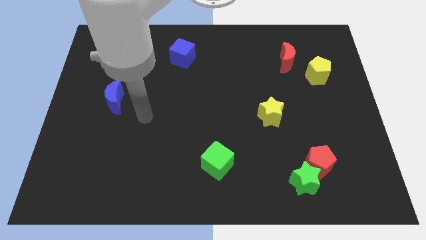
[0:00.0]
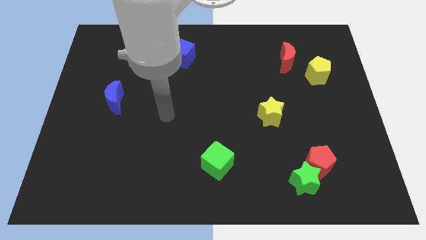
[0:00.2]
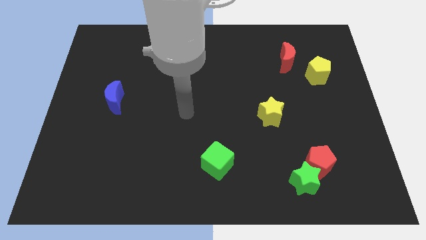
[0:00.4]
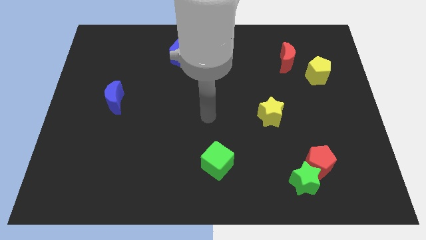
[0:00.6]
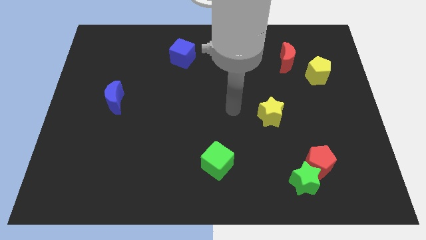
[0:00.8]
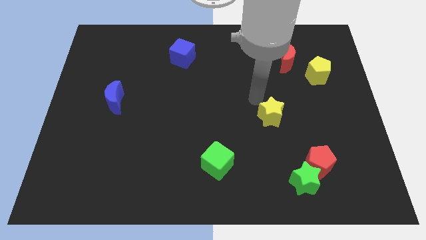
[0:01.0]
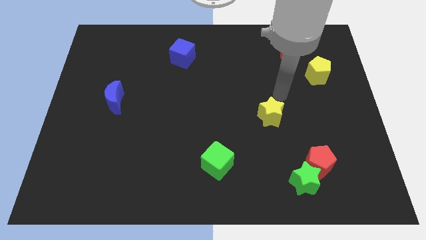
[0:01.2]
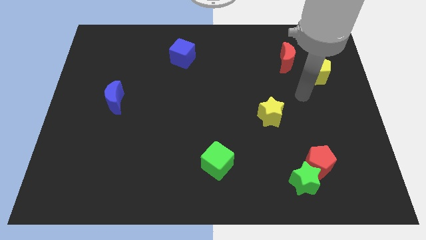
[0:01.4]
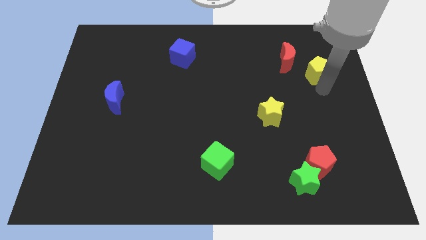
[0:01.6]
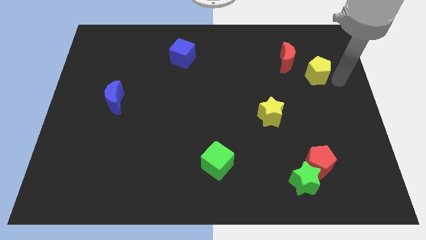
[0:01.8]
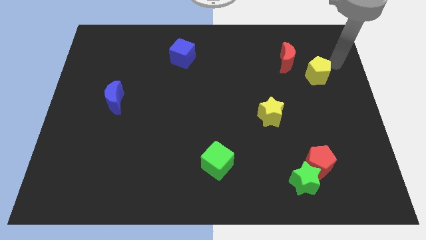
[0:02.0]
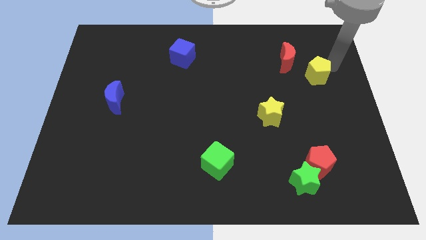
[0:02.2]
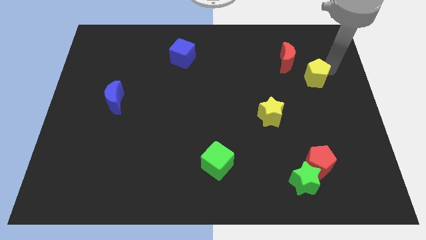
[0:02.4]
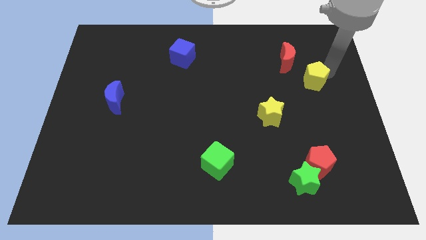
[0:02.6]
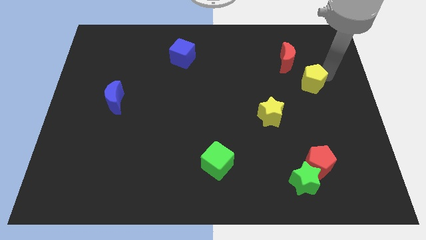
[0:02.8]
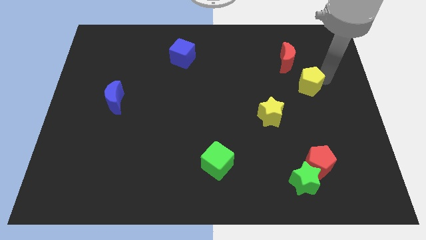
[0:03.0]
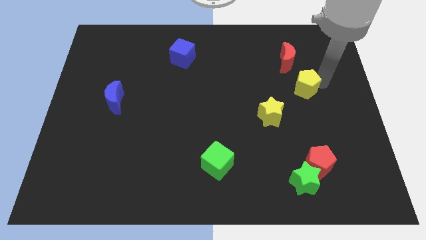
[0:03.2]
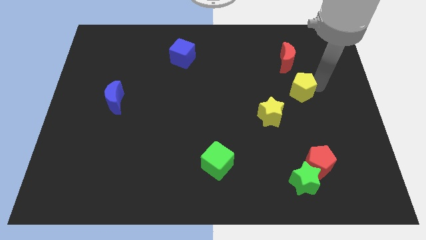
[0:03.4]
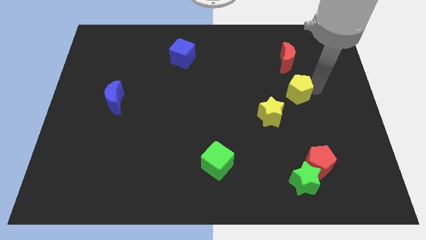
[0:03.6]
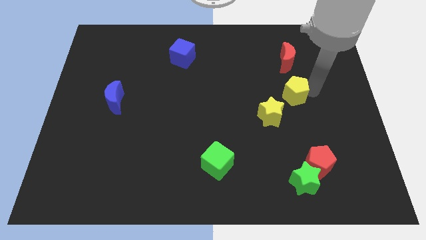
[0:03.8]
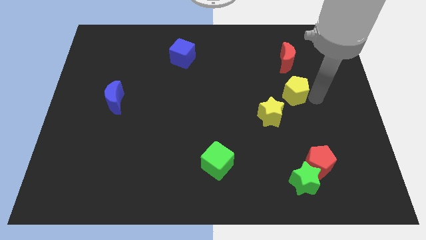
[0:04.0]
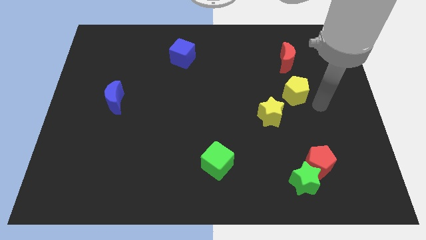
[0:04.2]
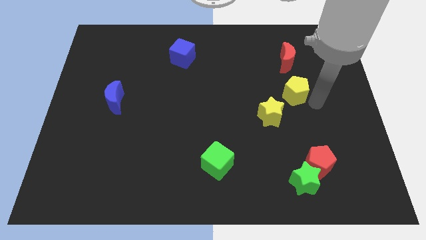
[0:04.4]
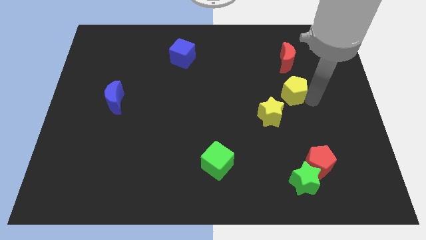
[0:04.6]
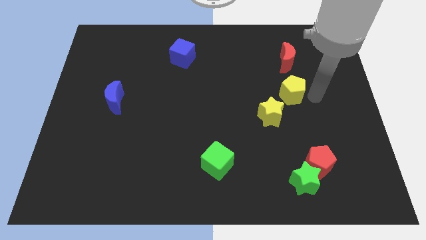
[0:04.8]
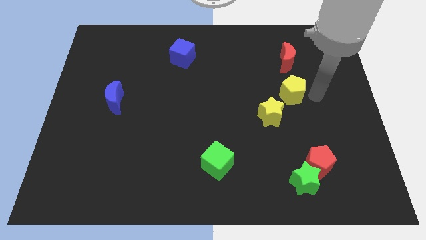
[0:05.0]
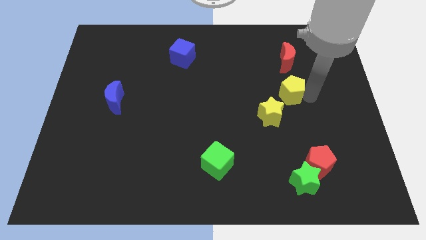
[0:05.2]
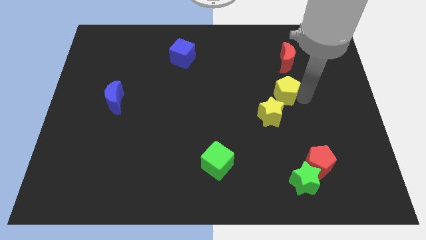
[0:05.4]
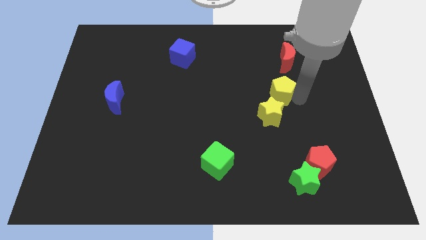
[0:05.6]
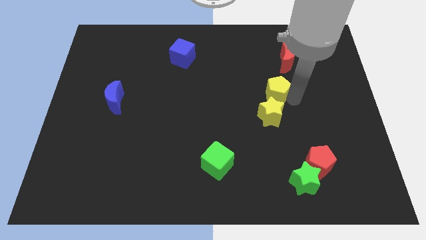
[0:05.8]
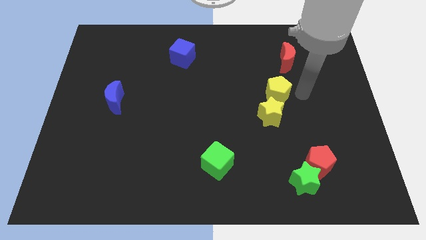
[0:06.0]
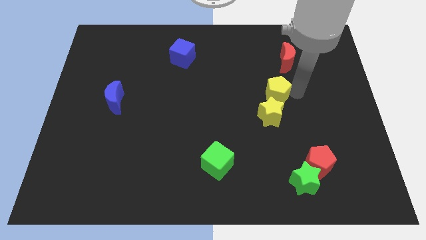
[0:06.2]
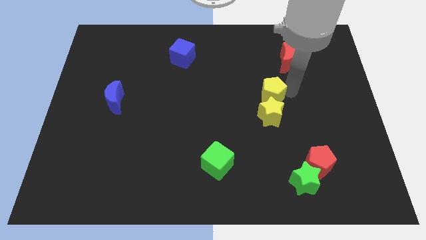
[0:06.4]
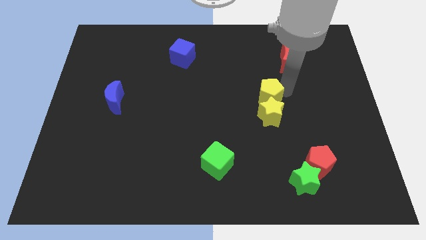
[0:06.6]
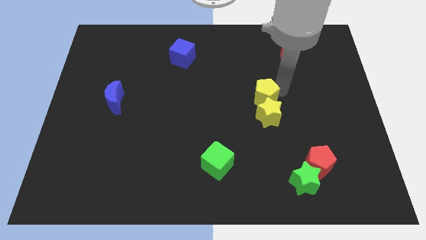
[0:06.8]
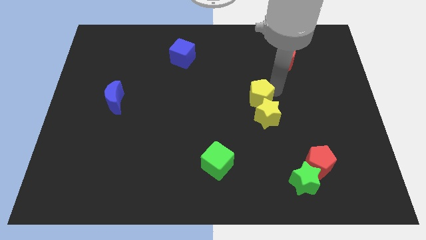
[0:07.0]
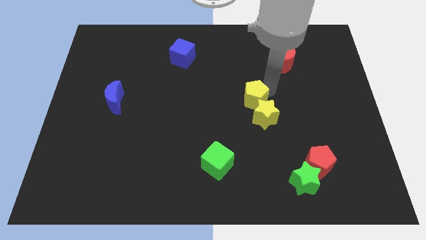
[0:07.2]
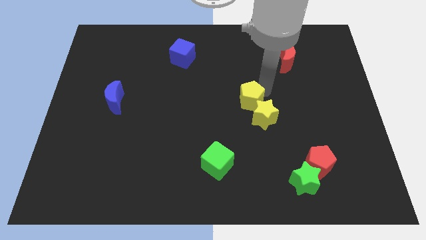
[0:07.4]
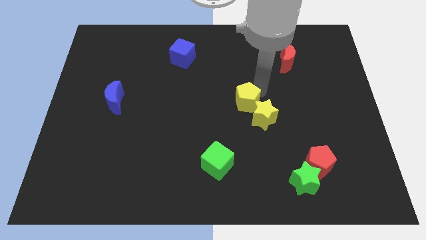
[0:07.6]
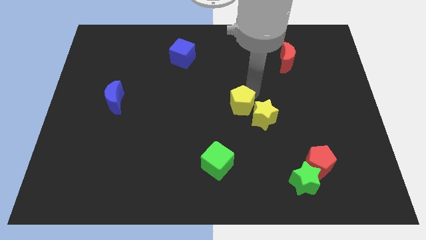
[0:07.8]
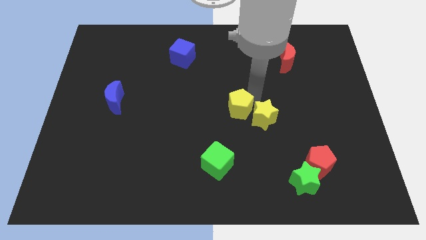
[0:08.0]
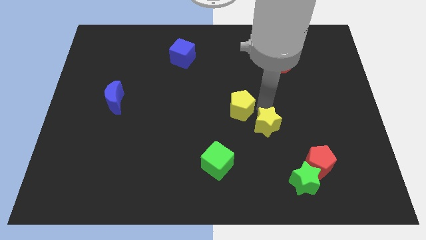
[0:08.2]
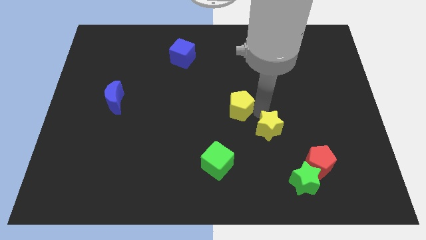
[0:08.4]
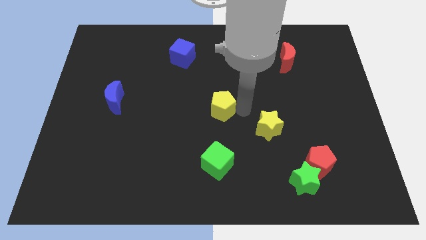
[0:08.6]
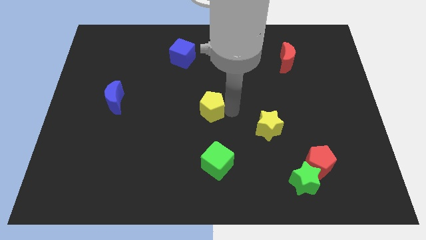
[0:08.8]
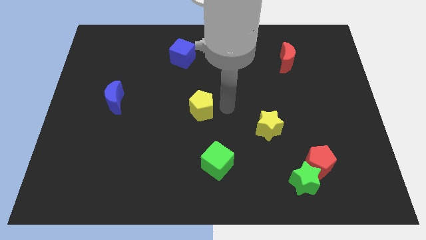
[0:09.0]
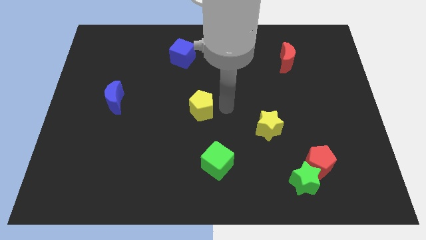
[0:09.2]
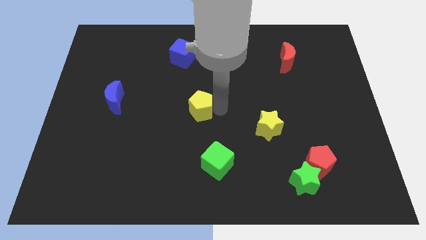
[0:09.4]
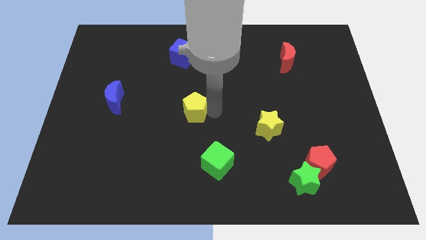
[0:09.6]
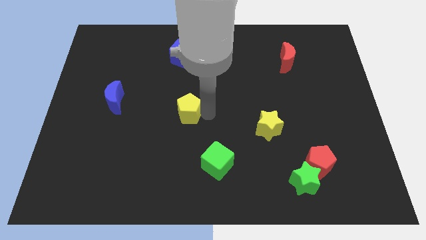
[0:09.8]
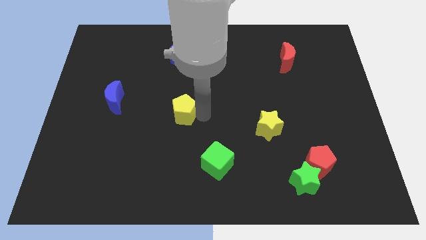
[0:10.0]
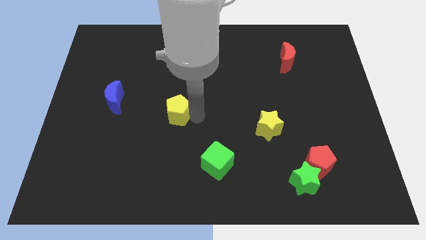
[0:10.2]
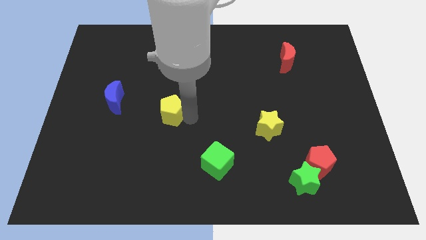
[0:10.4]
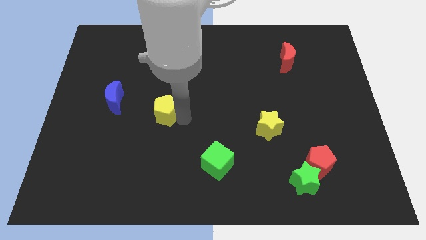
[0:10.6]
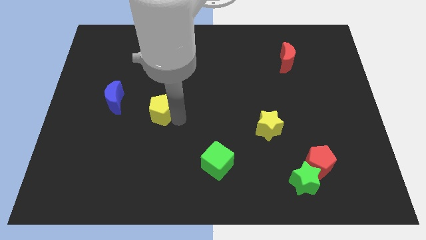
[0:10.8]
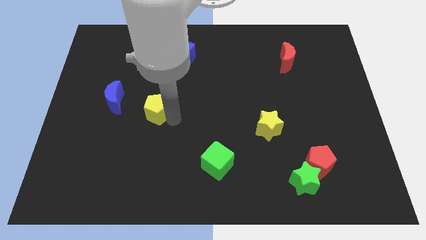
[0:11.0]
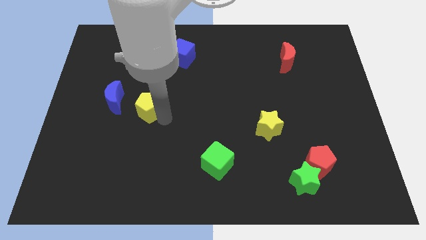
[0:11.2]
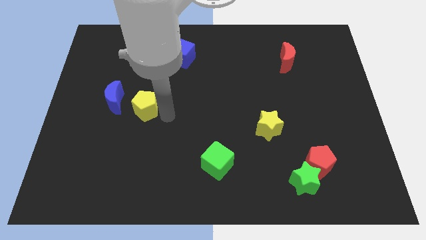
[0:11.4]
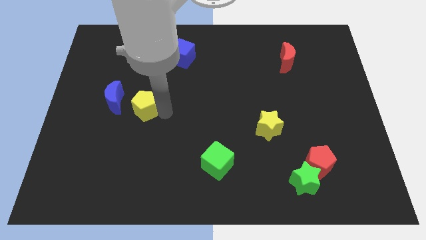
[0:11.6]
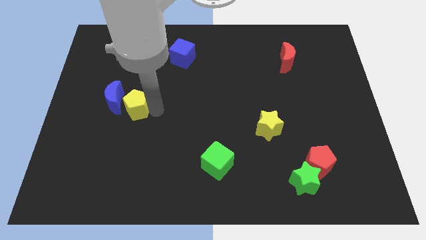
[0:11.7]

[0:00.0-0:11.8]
slide the yellow pentagon towards the blue moon

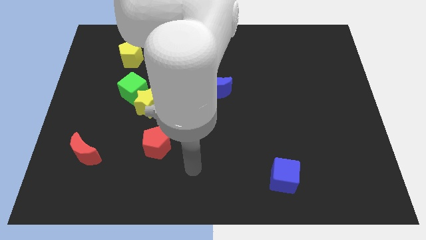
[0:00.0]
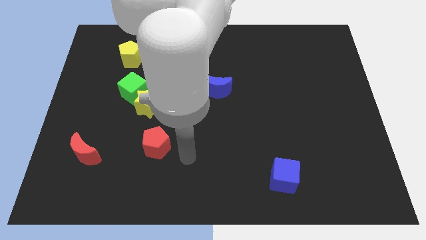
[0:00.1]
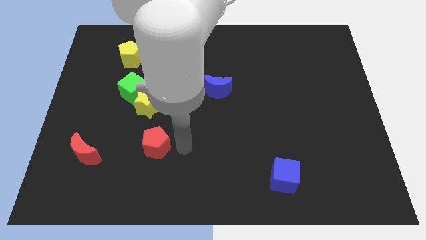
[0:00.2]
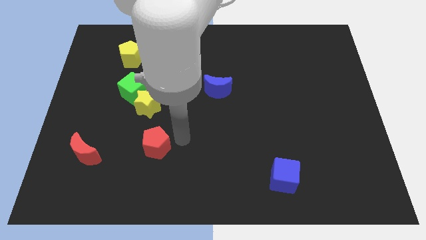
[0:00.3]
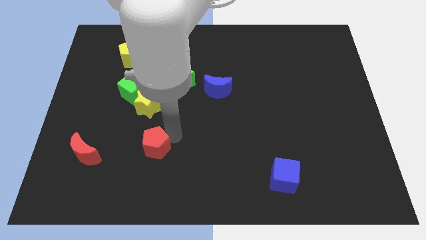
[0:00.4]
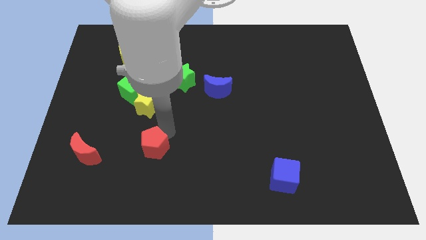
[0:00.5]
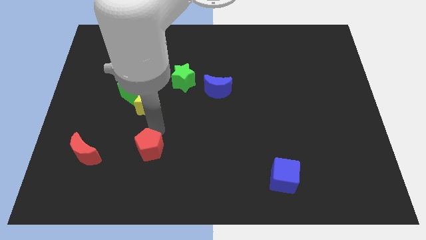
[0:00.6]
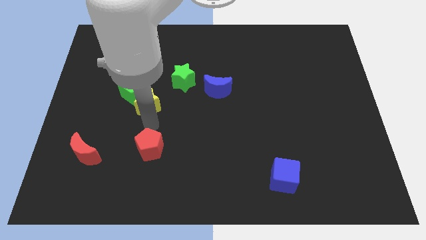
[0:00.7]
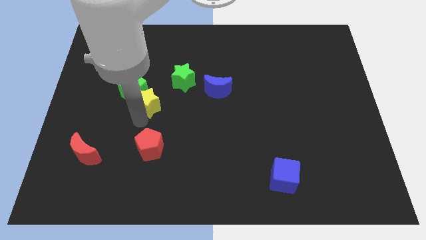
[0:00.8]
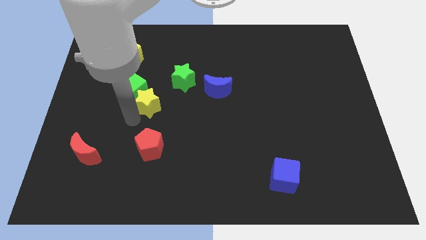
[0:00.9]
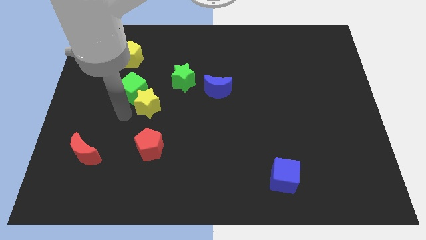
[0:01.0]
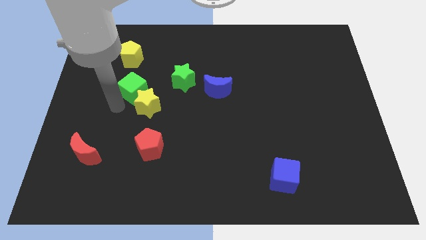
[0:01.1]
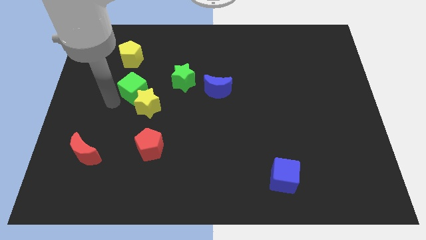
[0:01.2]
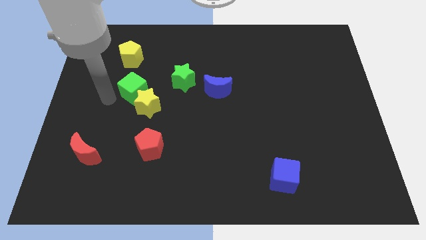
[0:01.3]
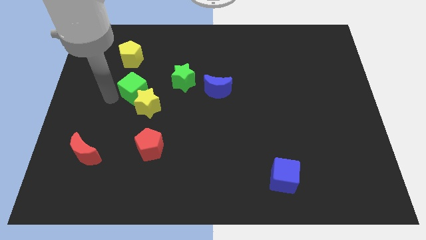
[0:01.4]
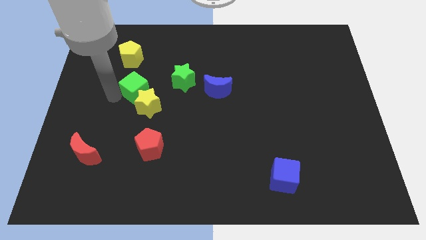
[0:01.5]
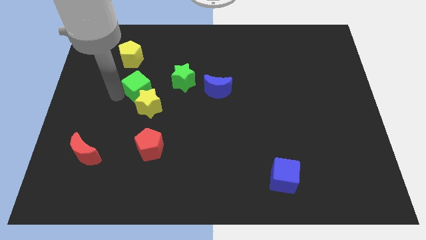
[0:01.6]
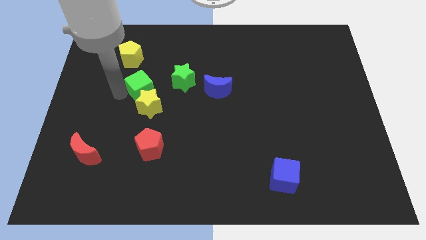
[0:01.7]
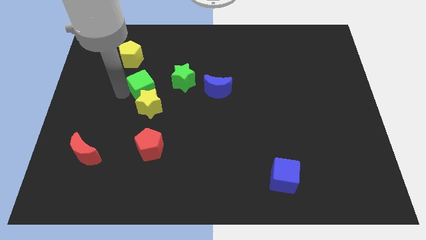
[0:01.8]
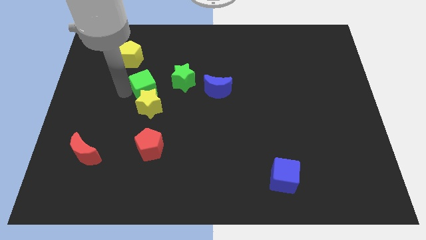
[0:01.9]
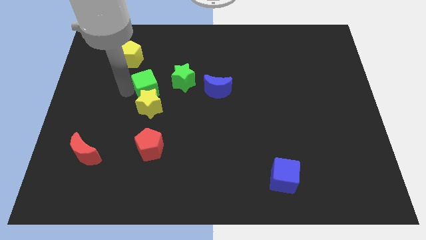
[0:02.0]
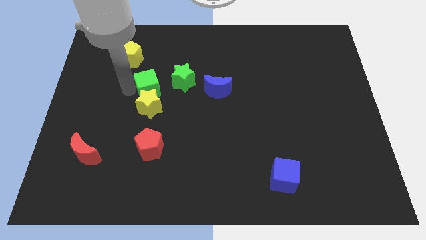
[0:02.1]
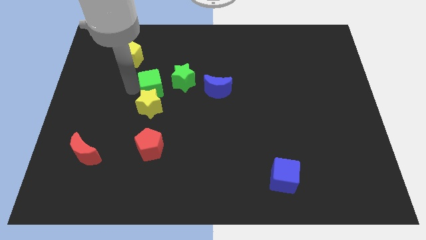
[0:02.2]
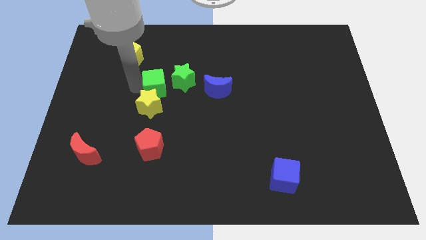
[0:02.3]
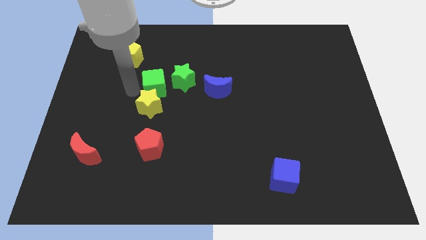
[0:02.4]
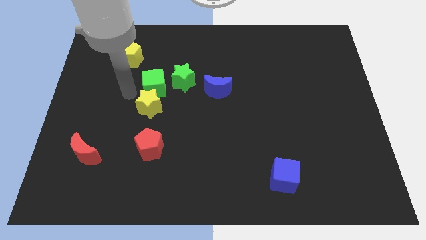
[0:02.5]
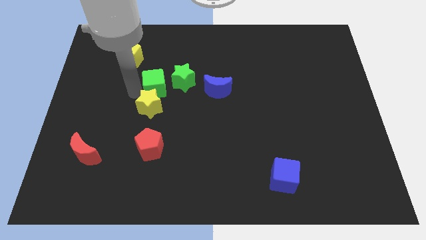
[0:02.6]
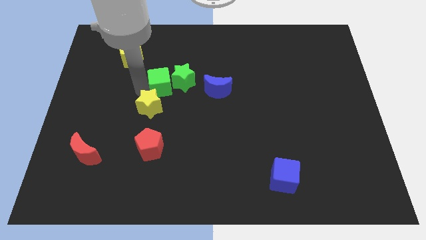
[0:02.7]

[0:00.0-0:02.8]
push the green cube close to the green star
